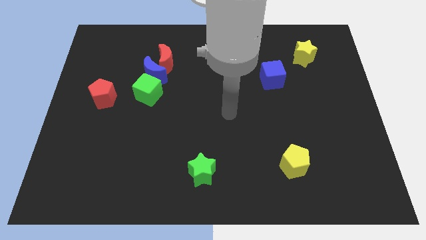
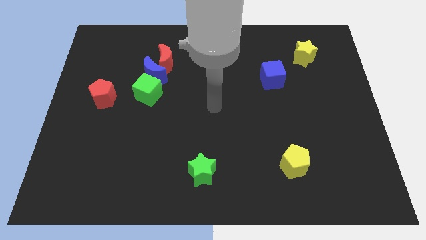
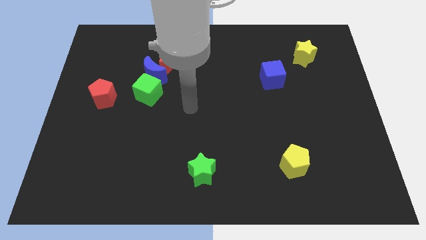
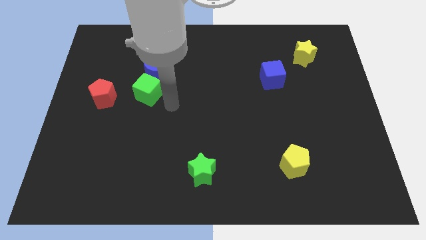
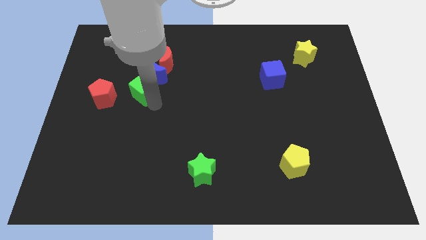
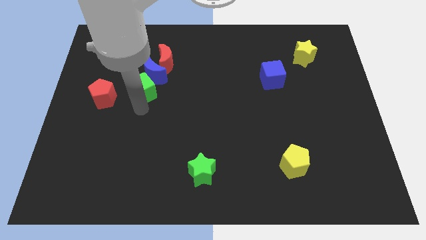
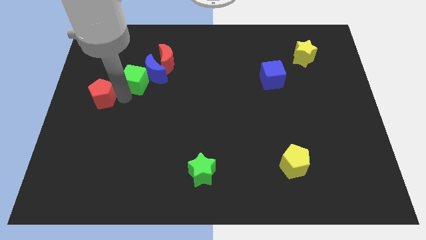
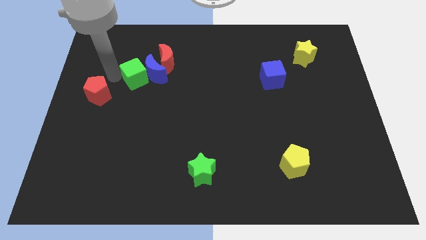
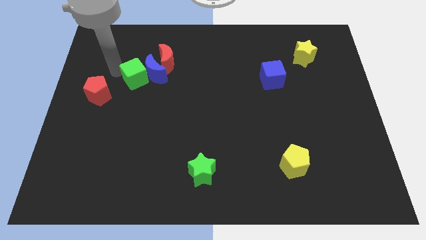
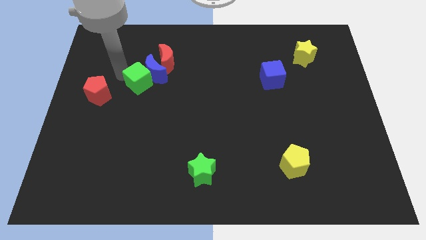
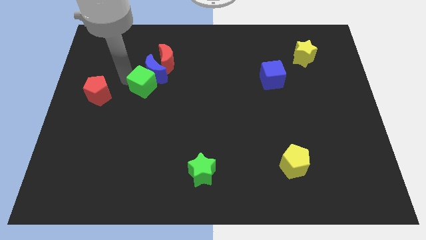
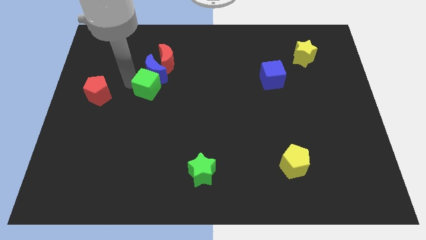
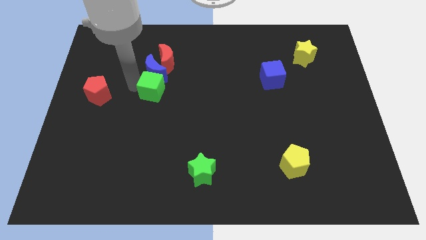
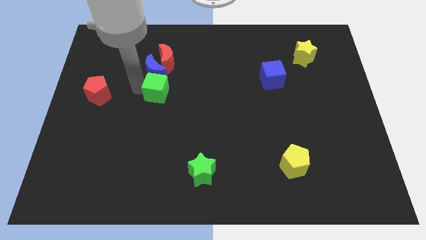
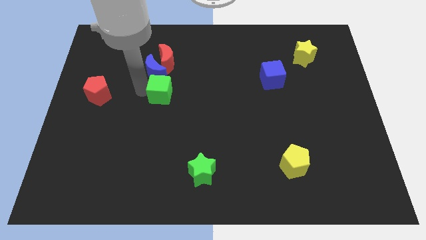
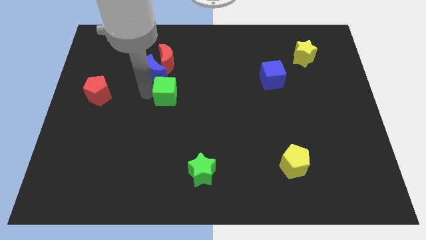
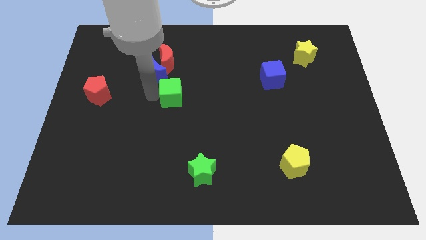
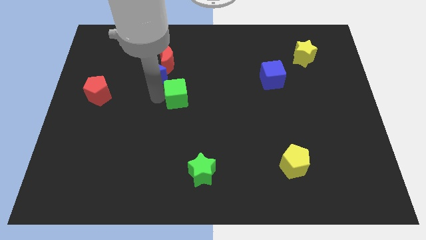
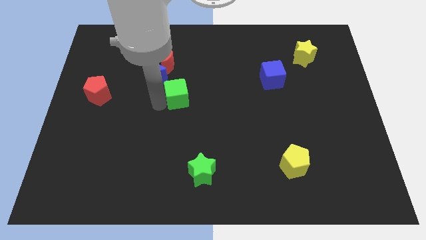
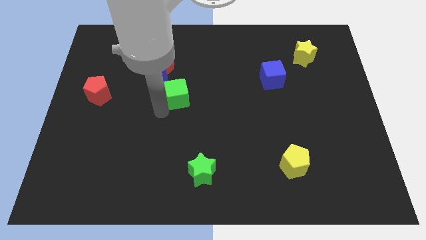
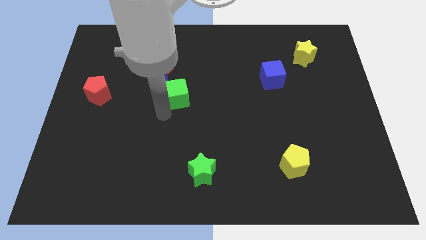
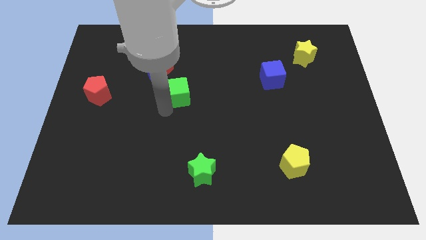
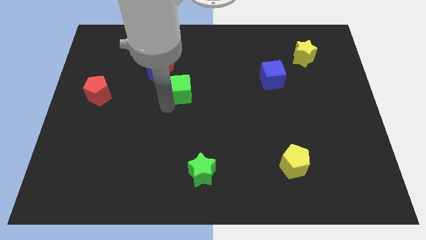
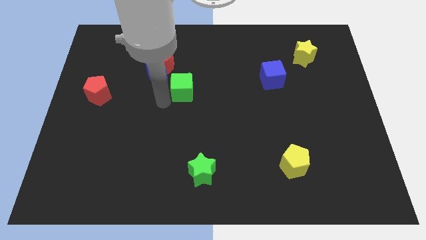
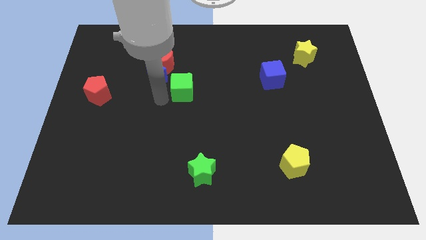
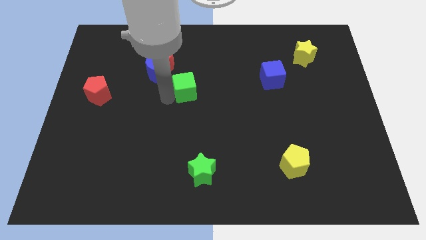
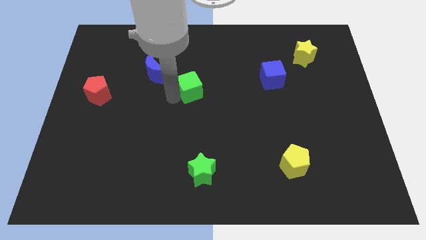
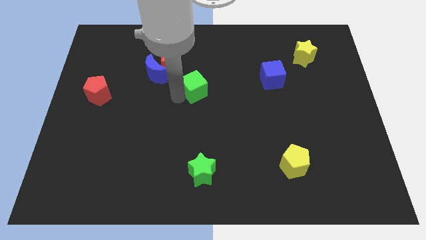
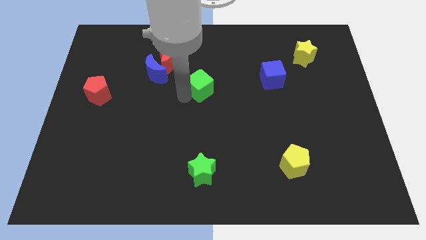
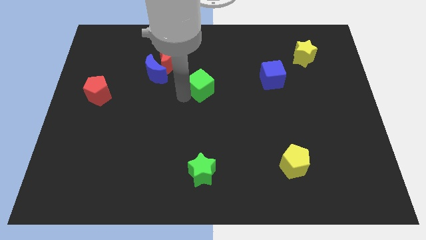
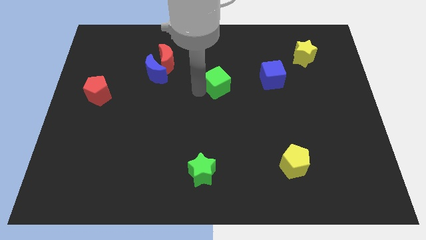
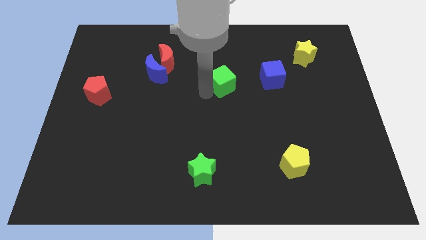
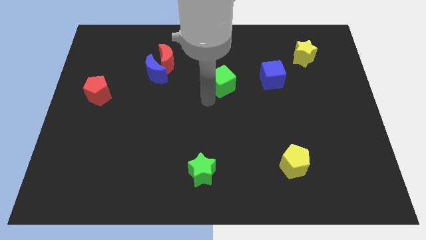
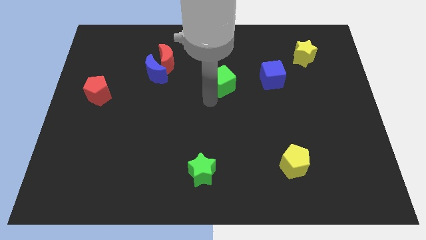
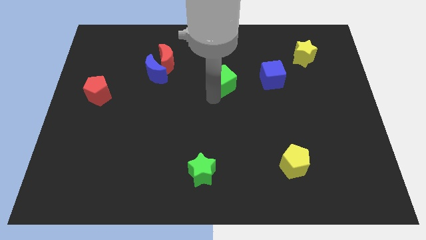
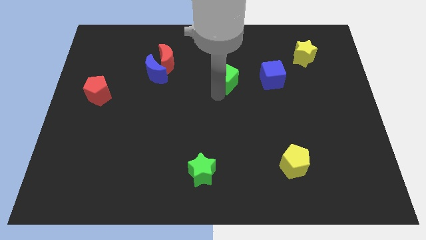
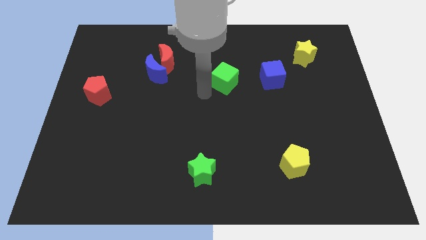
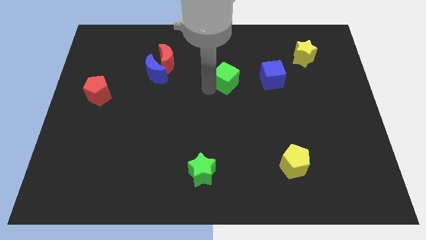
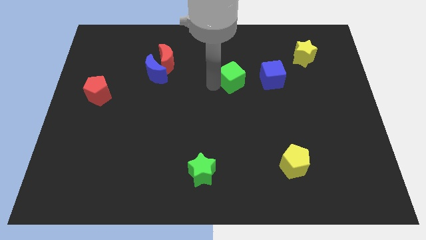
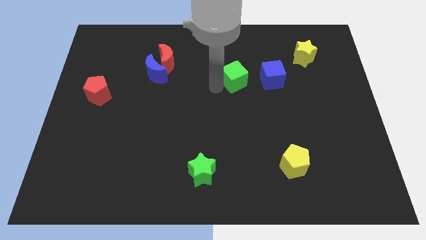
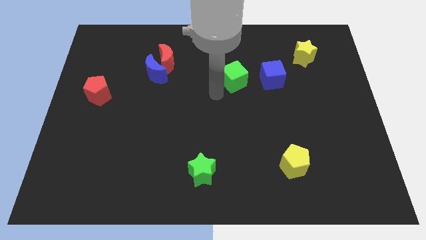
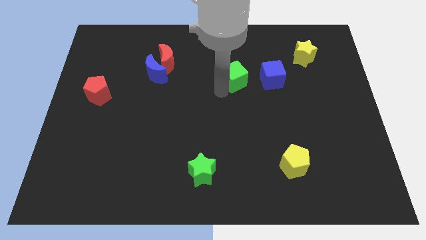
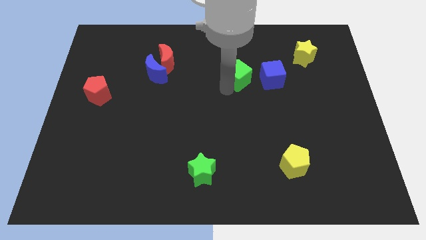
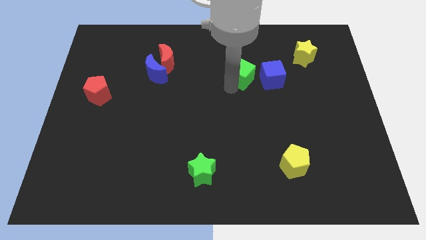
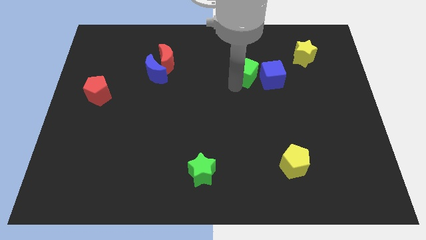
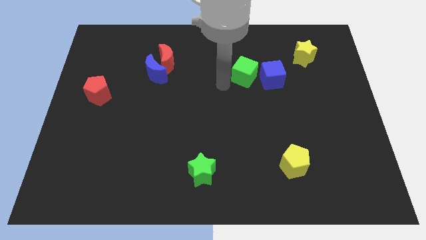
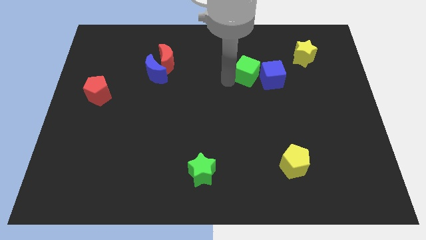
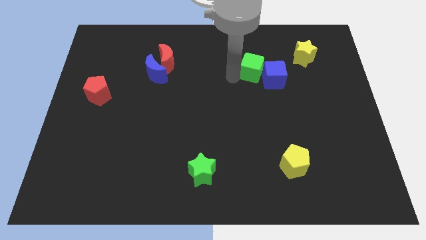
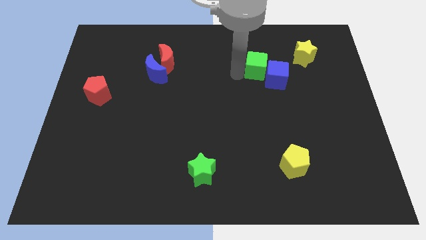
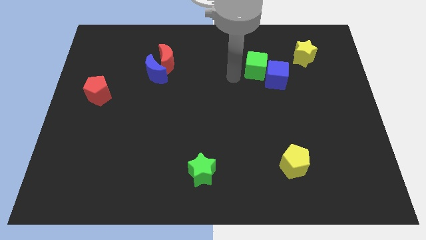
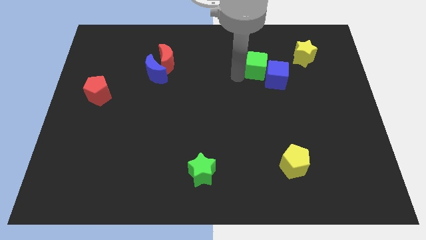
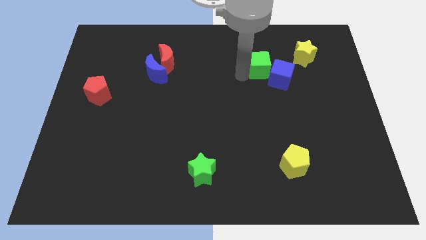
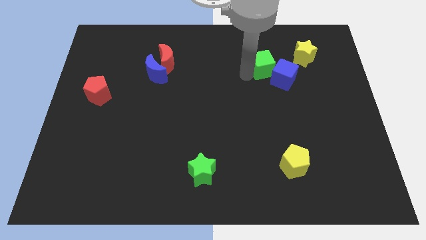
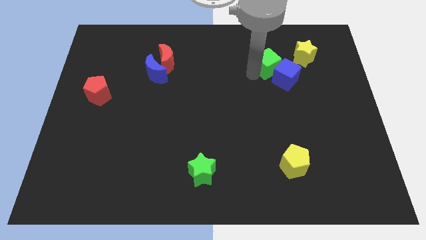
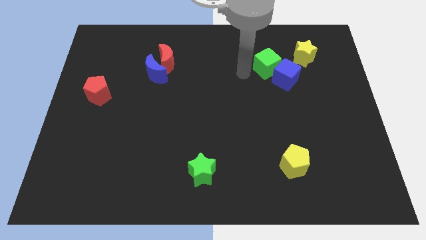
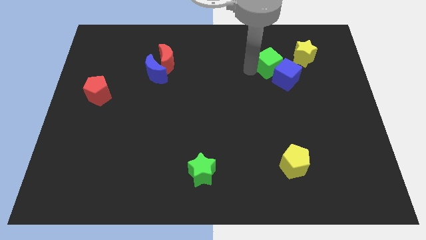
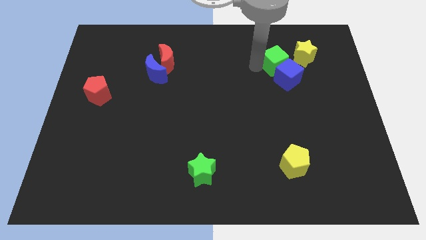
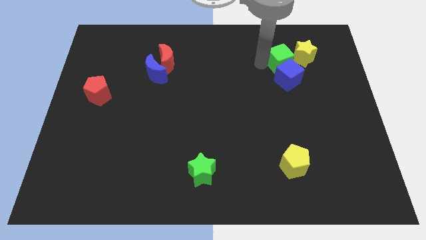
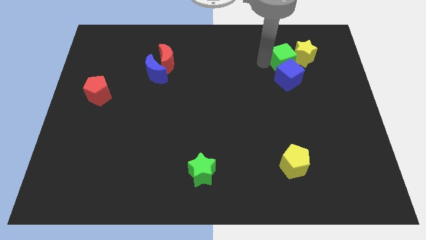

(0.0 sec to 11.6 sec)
push the green cube towards the yellow star

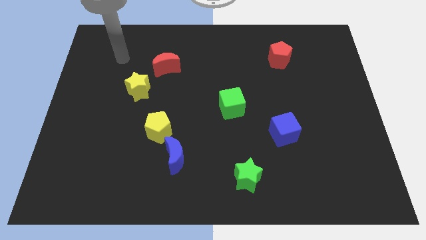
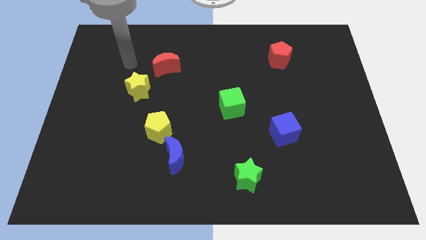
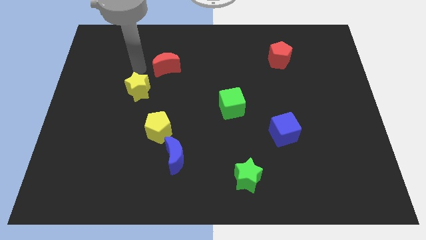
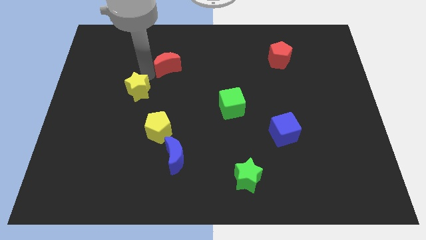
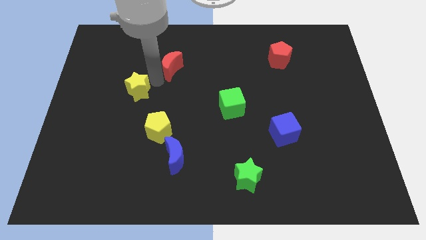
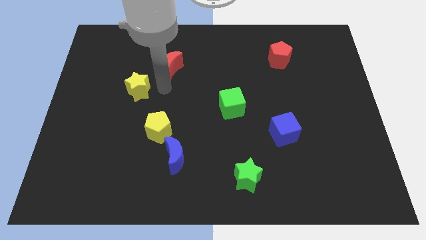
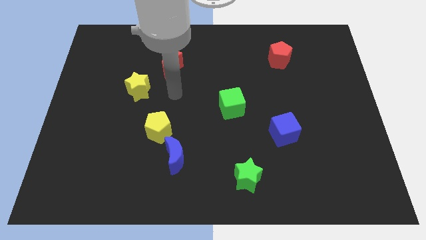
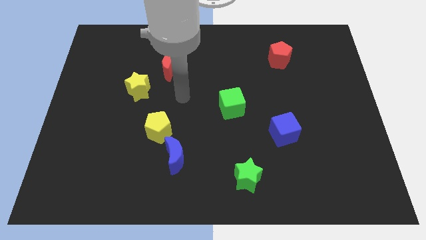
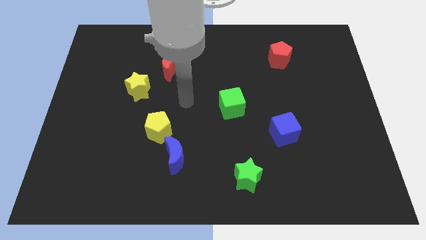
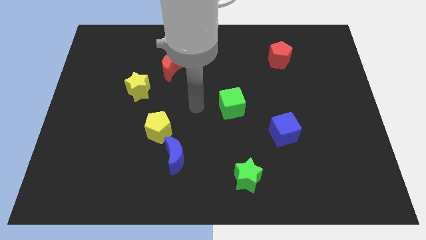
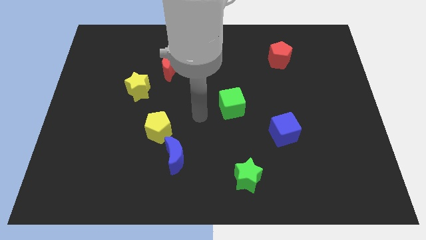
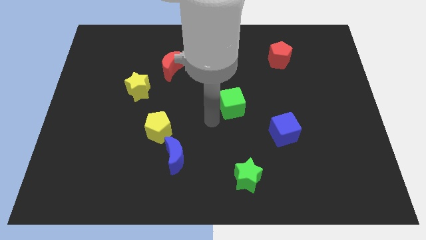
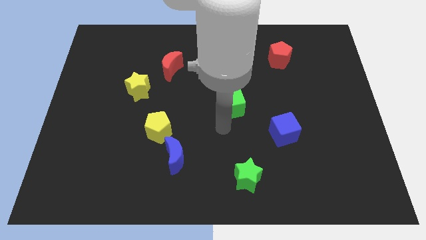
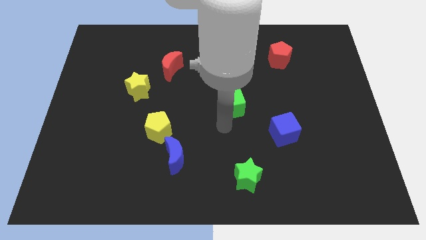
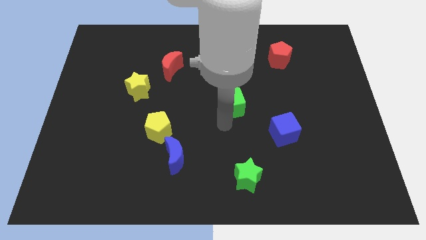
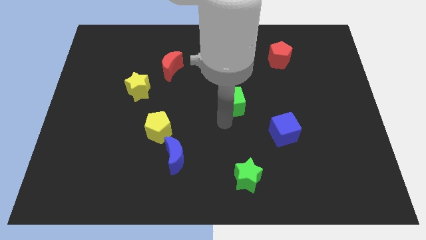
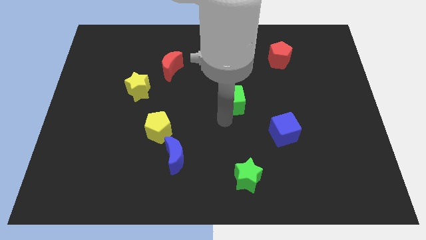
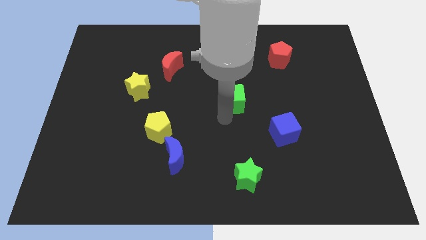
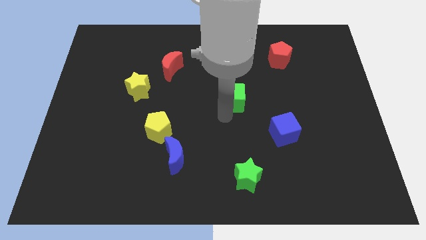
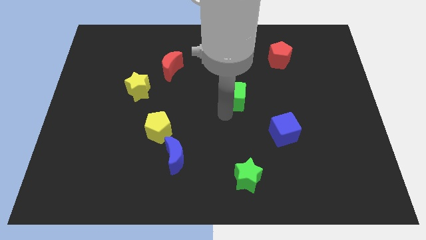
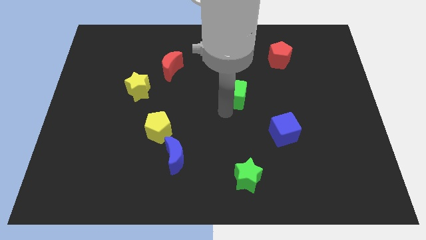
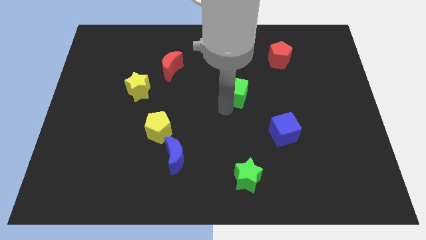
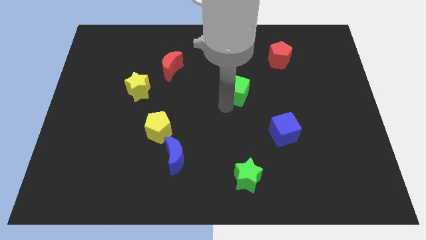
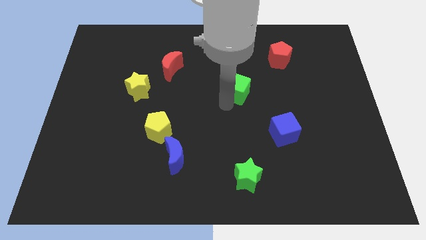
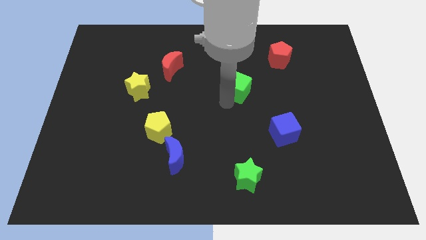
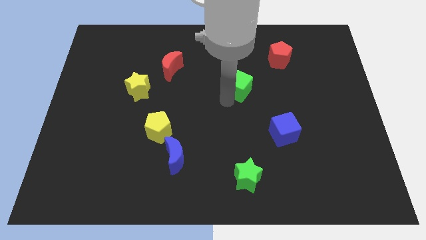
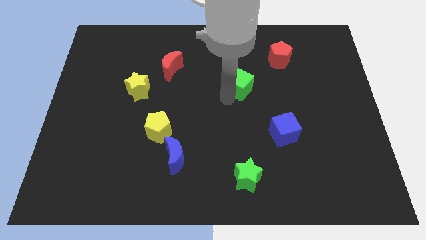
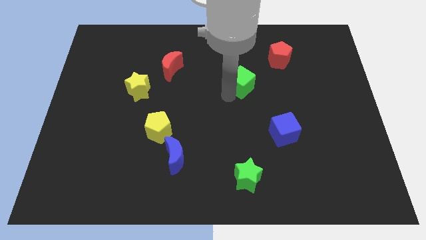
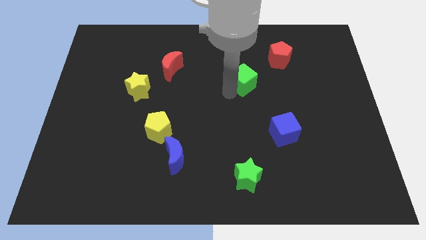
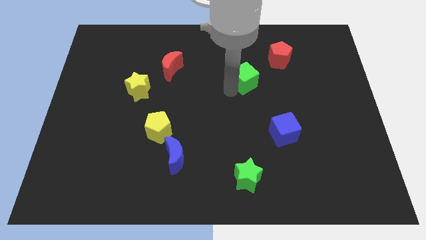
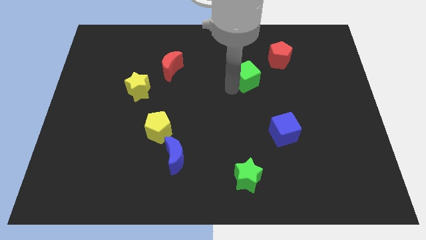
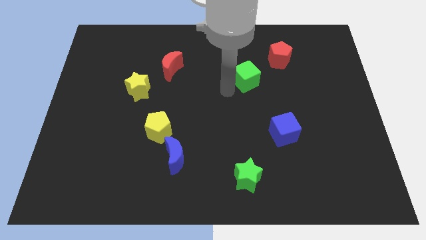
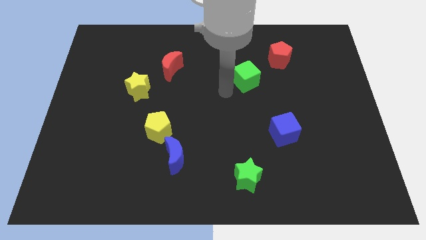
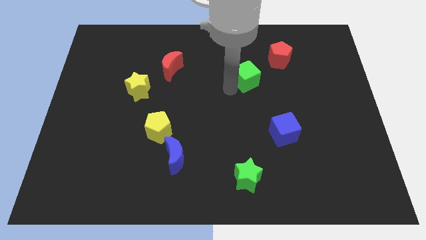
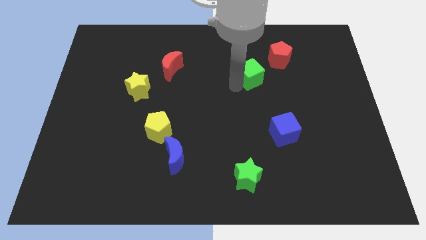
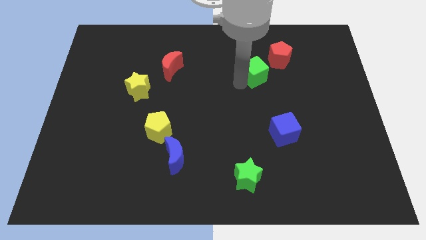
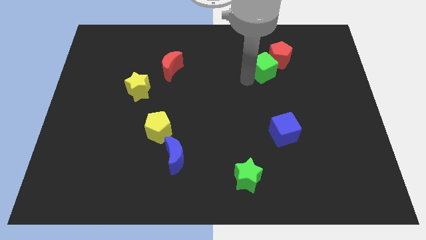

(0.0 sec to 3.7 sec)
push the green cube close to the red pentagon
